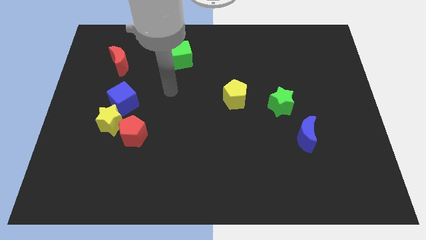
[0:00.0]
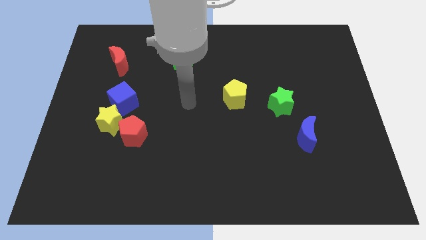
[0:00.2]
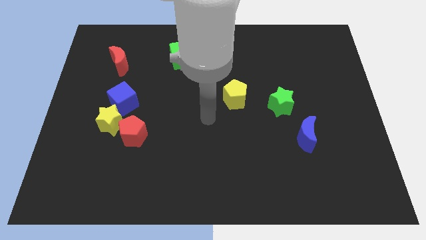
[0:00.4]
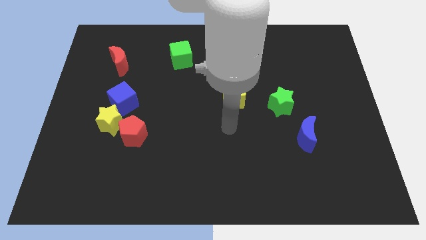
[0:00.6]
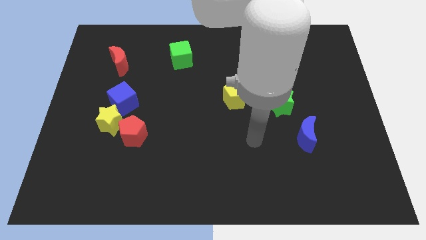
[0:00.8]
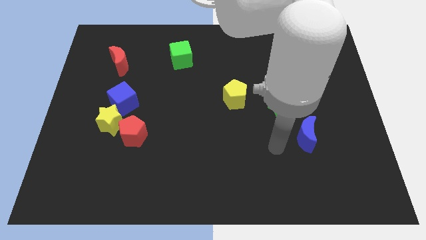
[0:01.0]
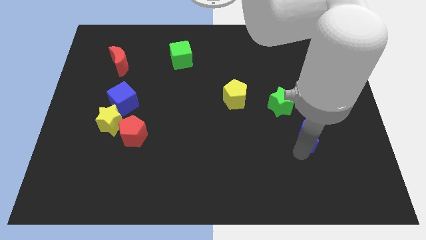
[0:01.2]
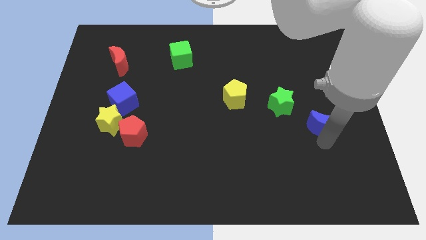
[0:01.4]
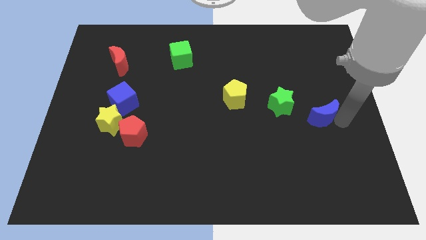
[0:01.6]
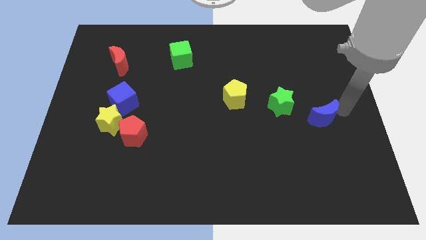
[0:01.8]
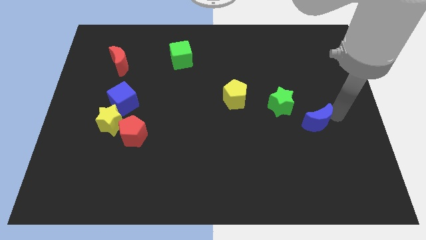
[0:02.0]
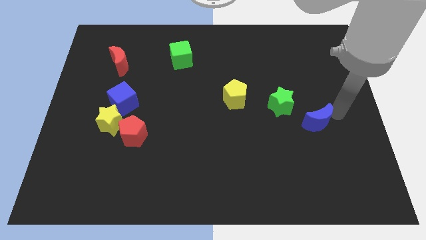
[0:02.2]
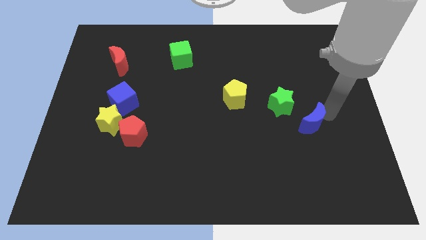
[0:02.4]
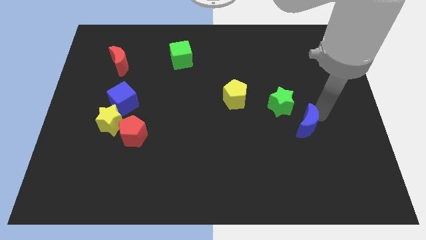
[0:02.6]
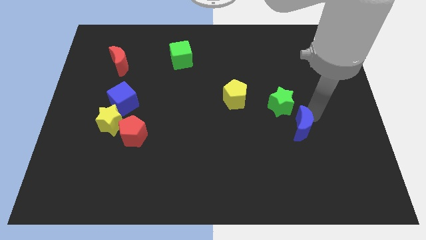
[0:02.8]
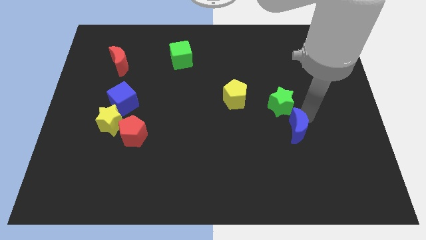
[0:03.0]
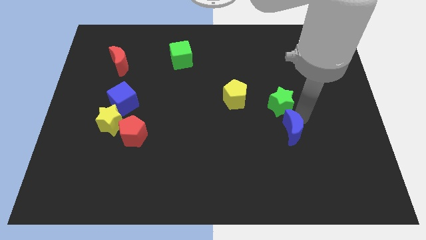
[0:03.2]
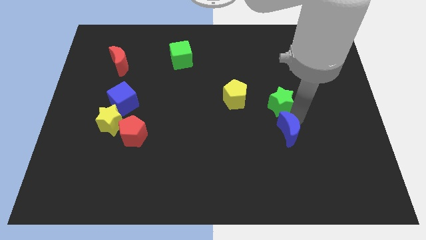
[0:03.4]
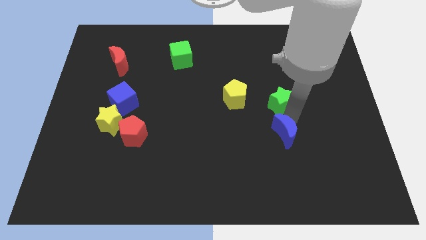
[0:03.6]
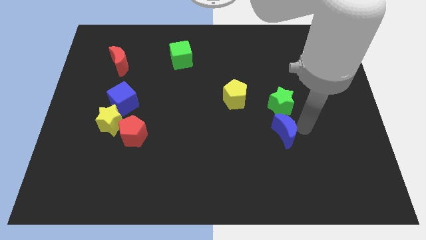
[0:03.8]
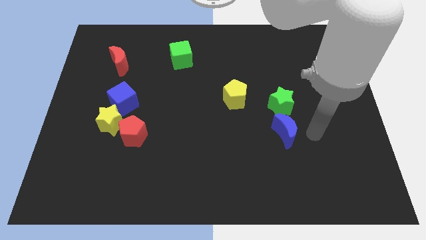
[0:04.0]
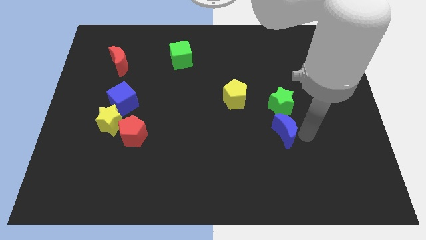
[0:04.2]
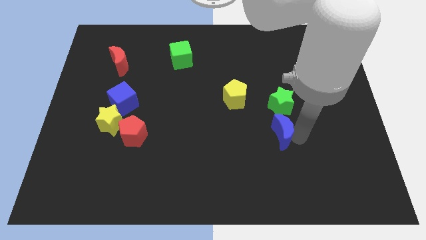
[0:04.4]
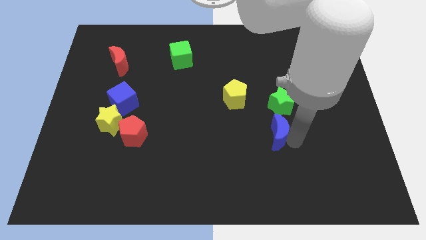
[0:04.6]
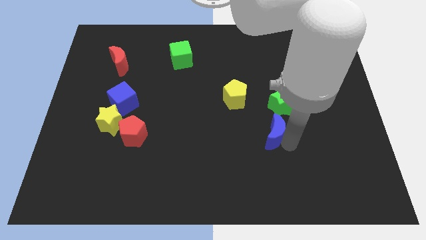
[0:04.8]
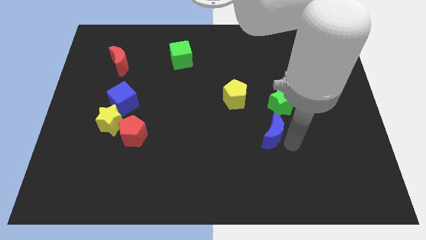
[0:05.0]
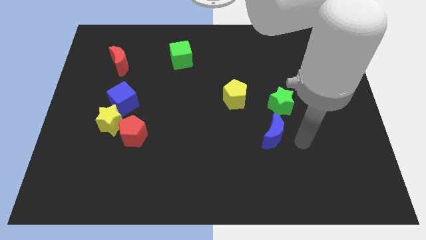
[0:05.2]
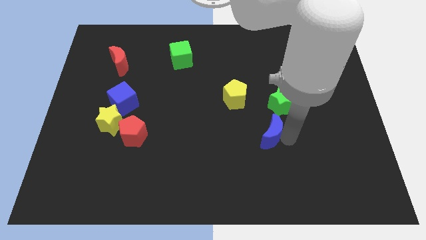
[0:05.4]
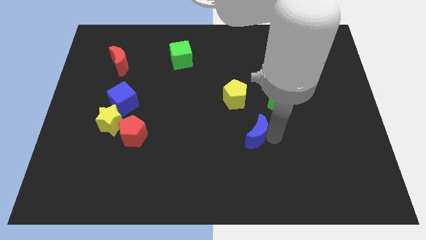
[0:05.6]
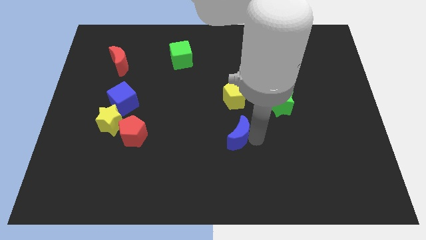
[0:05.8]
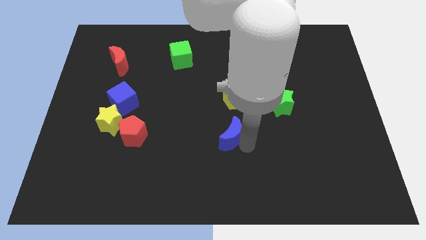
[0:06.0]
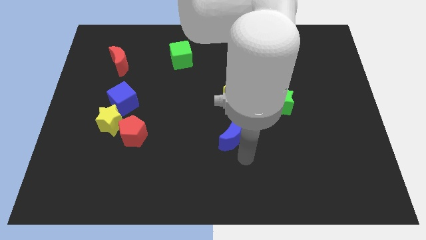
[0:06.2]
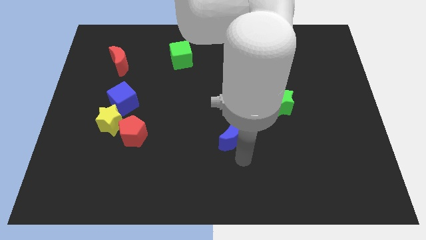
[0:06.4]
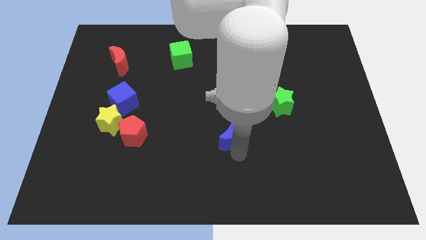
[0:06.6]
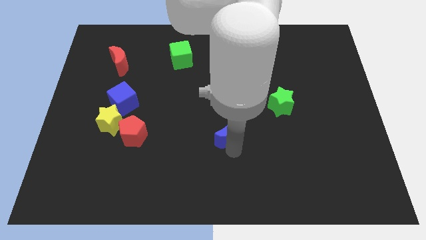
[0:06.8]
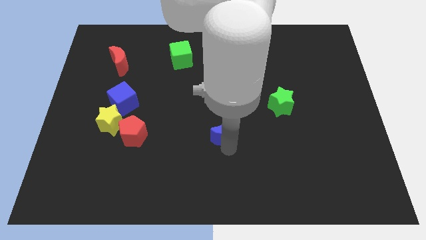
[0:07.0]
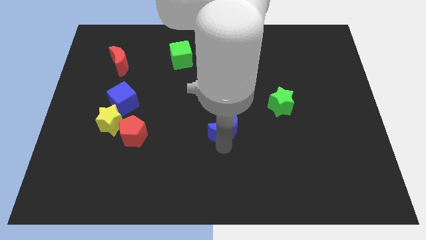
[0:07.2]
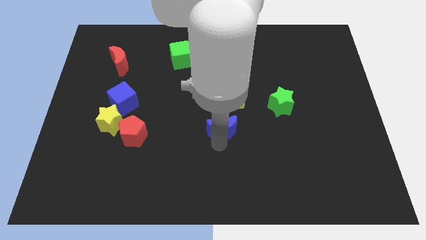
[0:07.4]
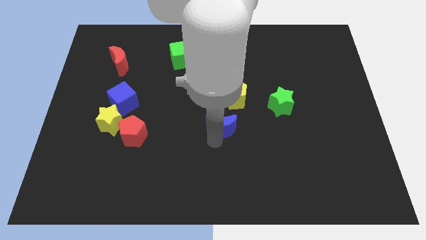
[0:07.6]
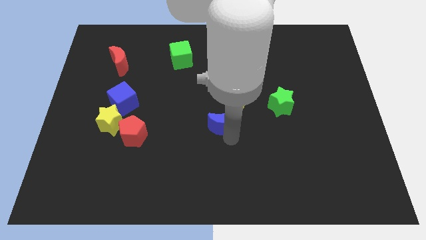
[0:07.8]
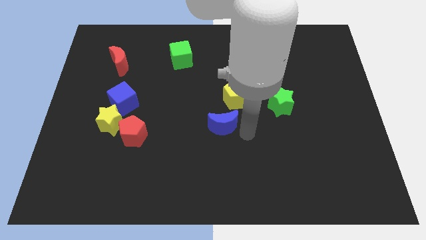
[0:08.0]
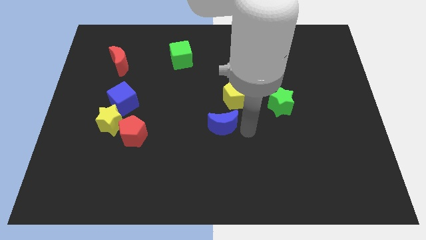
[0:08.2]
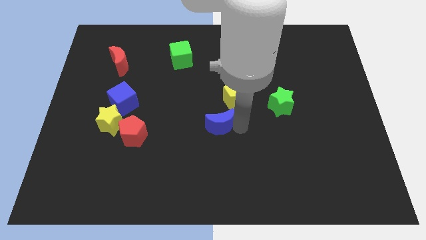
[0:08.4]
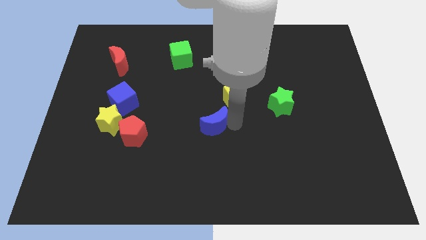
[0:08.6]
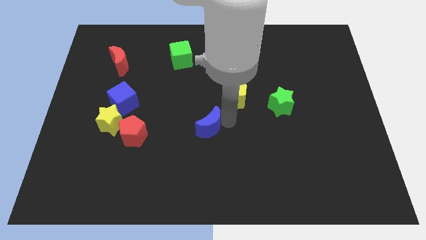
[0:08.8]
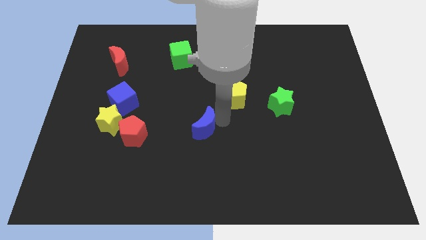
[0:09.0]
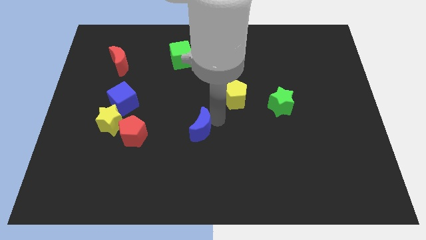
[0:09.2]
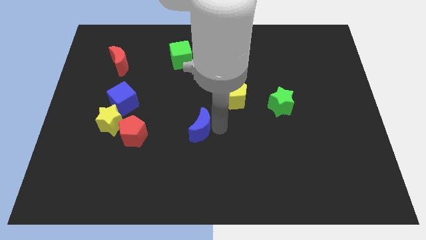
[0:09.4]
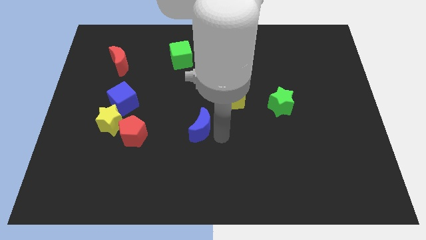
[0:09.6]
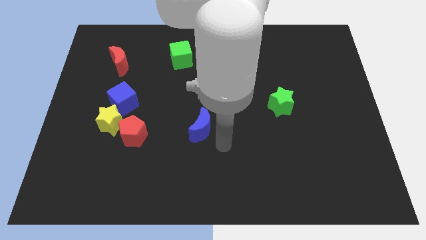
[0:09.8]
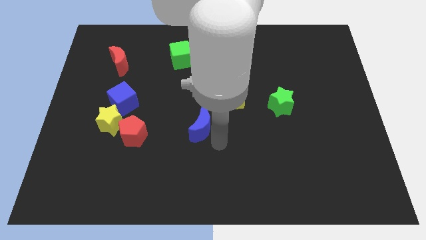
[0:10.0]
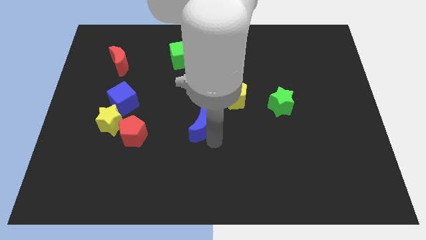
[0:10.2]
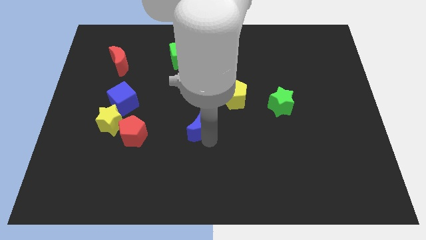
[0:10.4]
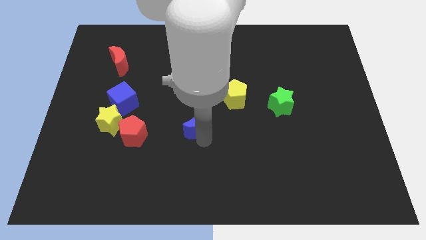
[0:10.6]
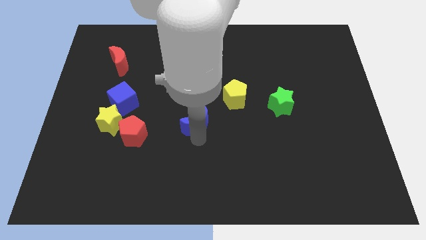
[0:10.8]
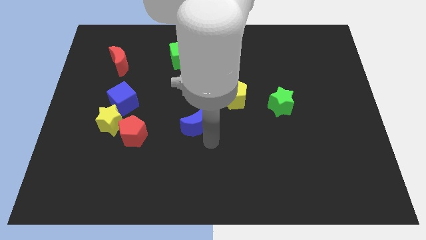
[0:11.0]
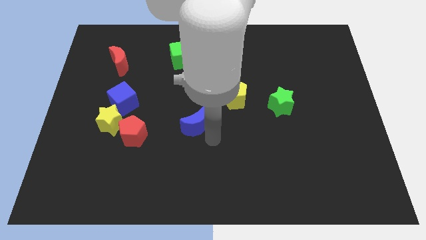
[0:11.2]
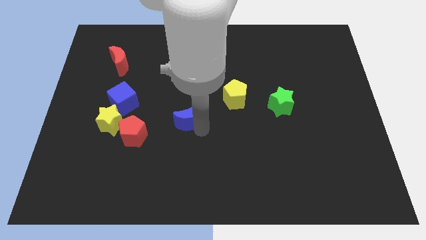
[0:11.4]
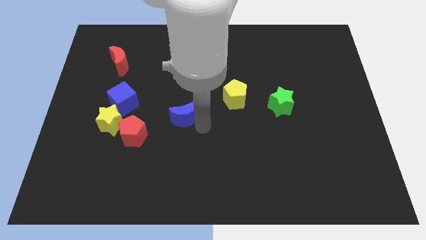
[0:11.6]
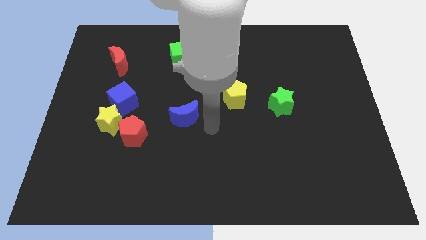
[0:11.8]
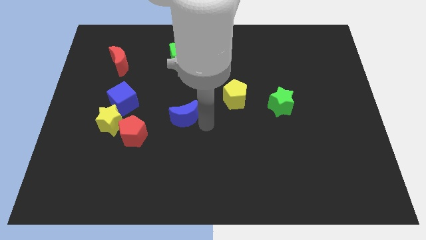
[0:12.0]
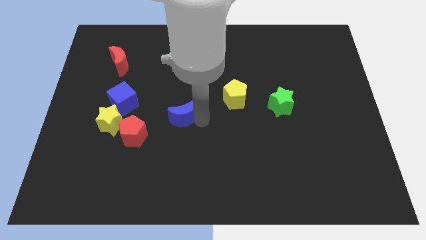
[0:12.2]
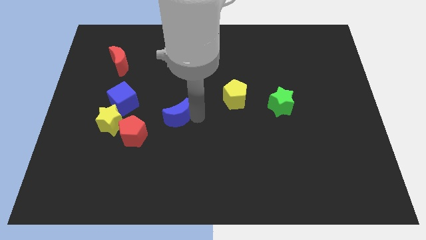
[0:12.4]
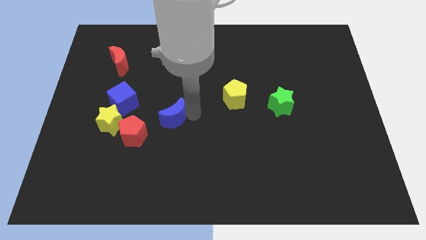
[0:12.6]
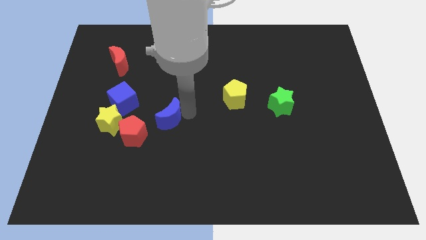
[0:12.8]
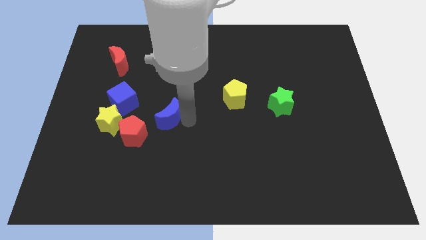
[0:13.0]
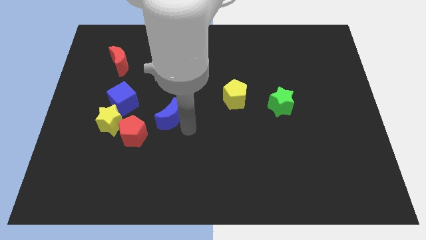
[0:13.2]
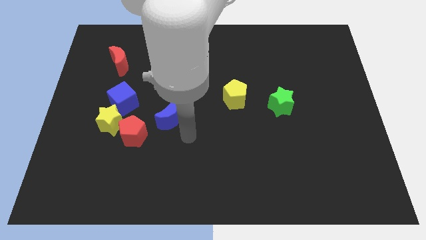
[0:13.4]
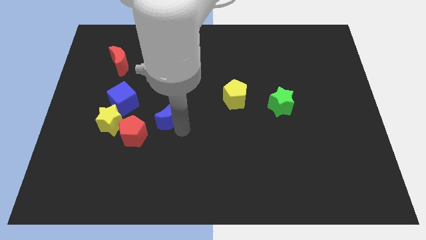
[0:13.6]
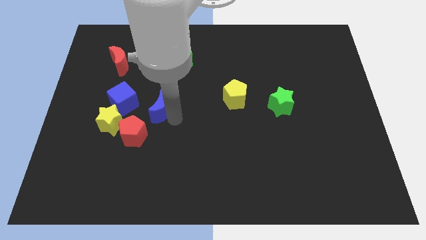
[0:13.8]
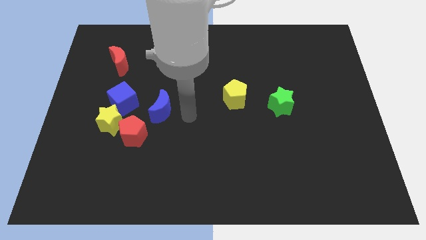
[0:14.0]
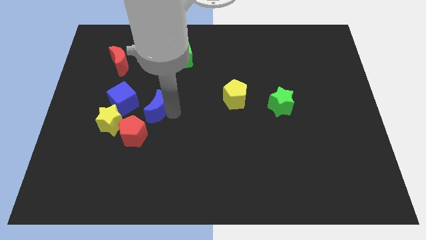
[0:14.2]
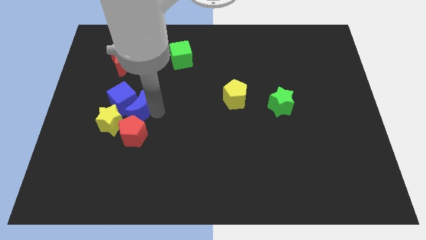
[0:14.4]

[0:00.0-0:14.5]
put the blue moon towards the blue cube

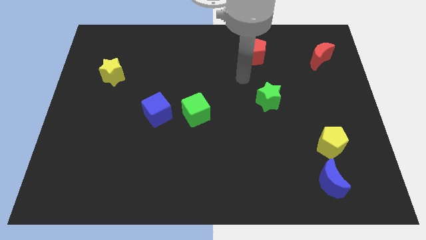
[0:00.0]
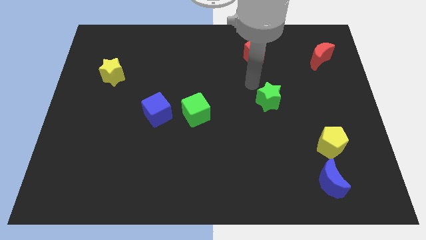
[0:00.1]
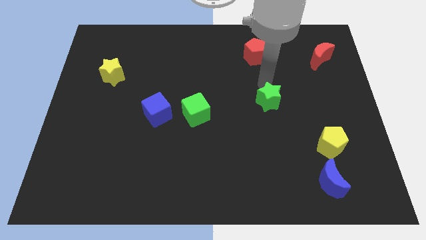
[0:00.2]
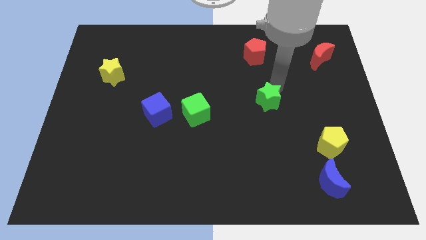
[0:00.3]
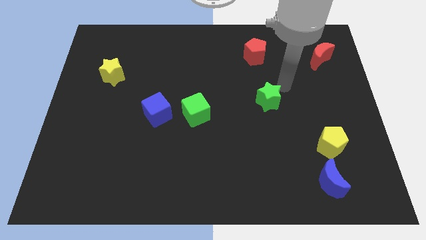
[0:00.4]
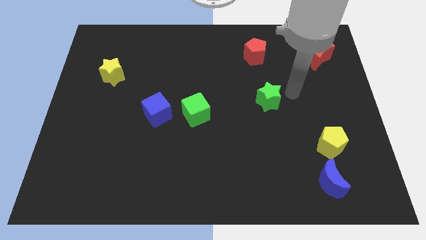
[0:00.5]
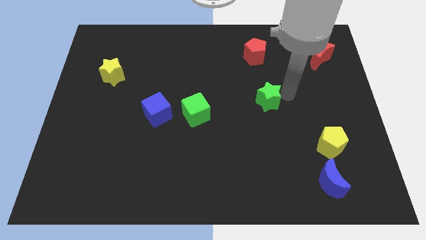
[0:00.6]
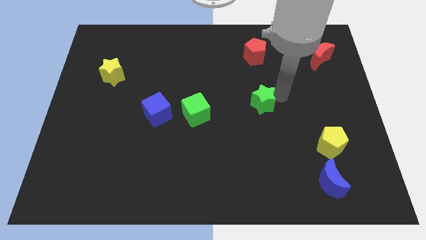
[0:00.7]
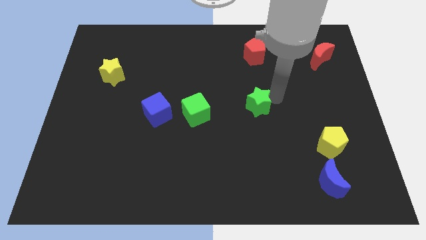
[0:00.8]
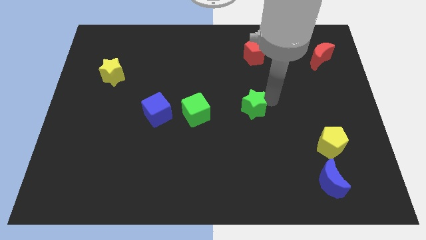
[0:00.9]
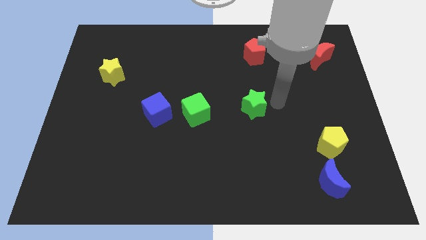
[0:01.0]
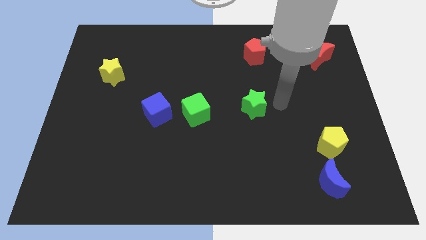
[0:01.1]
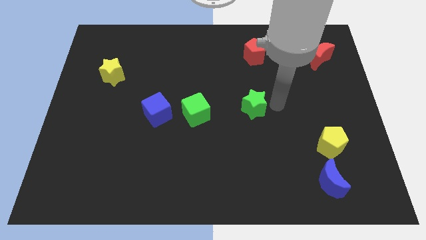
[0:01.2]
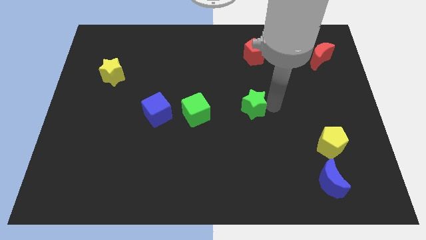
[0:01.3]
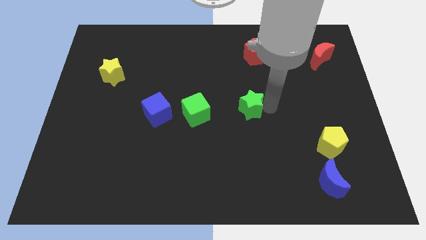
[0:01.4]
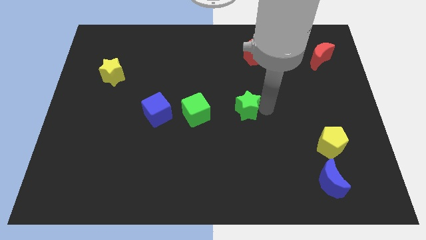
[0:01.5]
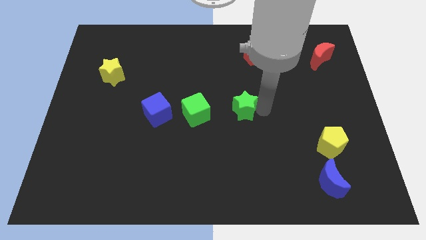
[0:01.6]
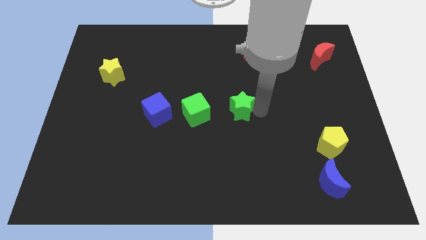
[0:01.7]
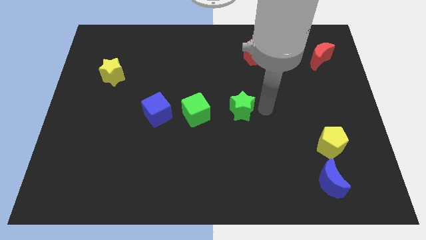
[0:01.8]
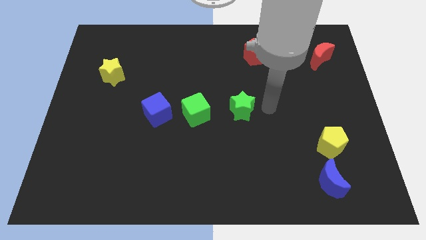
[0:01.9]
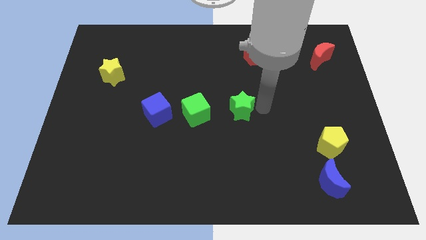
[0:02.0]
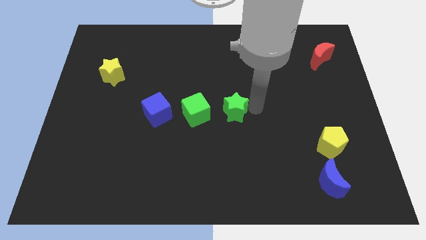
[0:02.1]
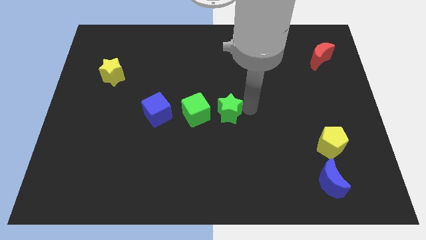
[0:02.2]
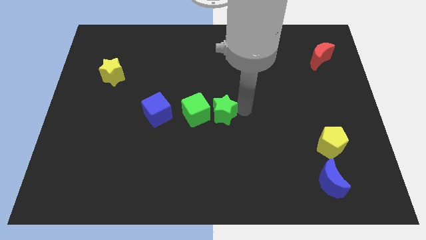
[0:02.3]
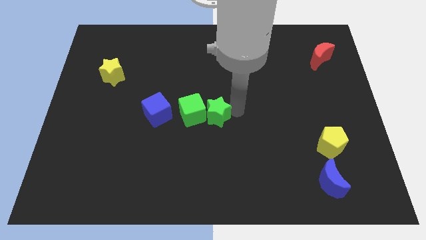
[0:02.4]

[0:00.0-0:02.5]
move the green star close to the green cube
